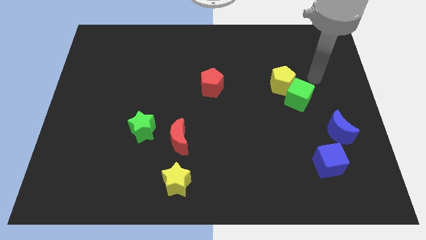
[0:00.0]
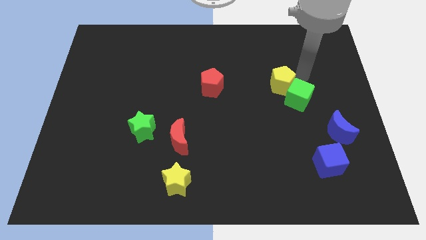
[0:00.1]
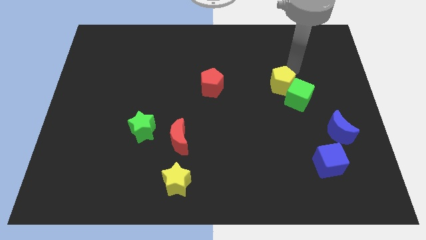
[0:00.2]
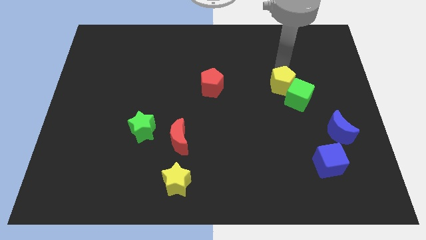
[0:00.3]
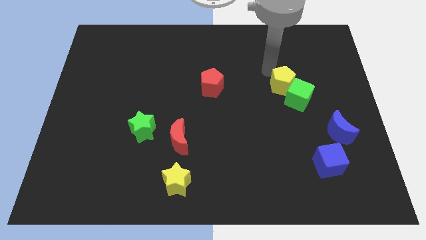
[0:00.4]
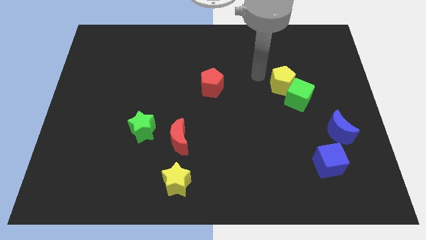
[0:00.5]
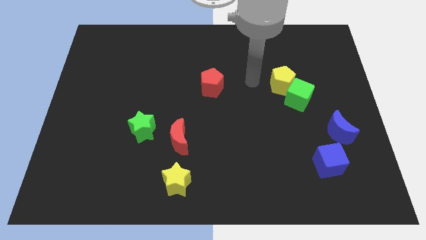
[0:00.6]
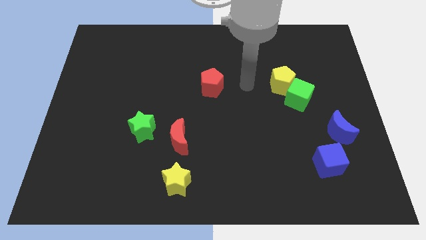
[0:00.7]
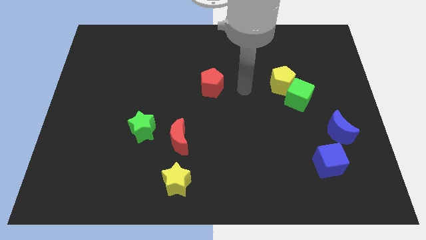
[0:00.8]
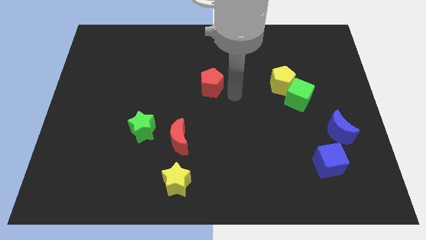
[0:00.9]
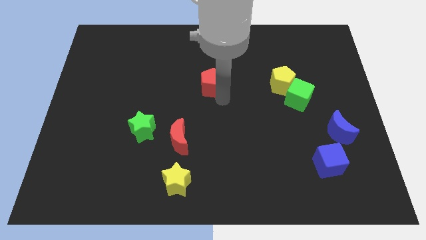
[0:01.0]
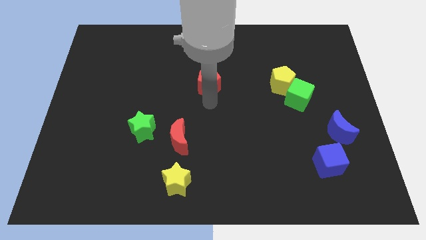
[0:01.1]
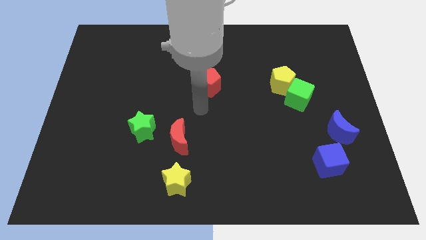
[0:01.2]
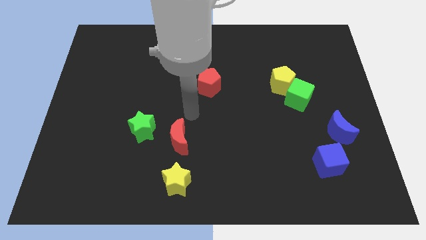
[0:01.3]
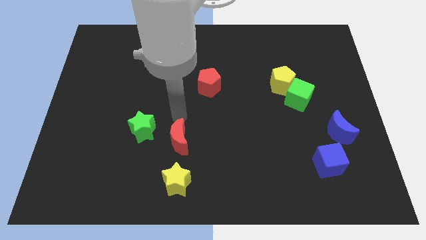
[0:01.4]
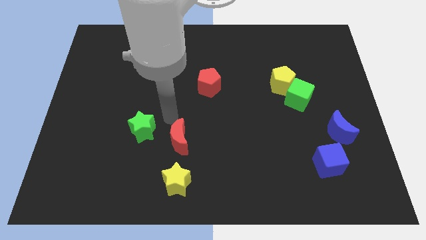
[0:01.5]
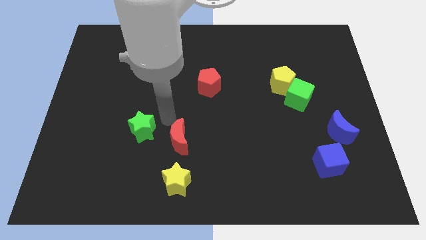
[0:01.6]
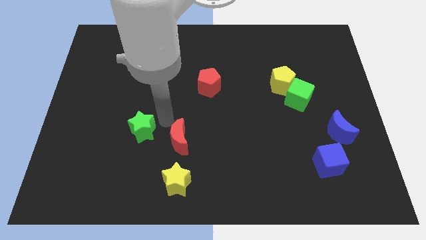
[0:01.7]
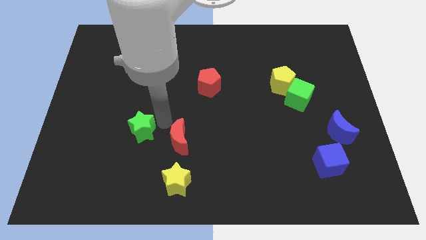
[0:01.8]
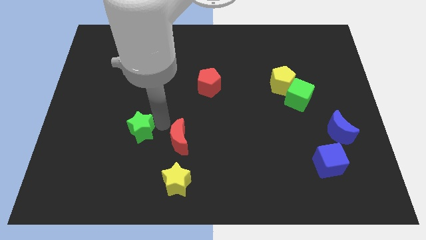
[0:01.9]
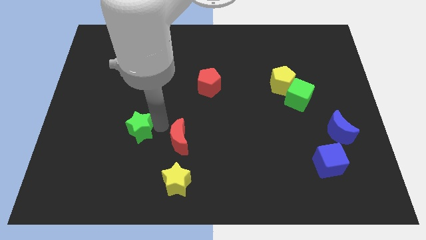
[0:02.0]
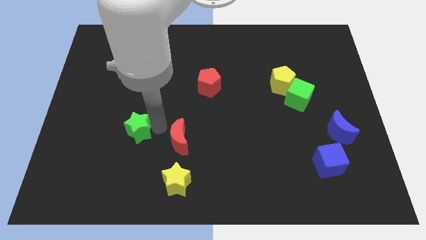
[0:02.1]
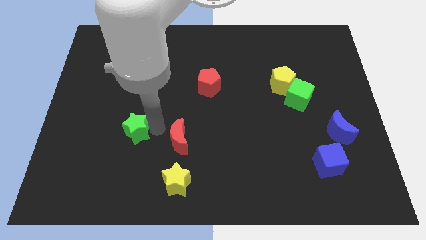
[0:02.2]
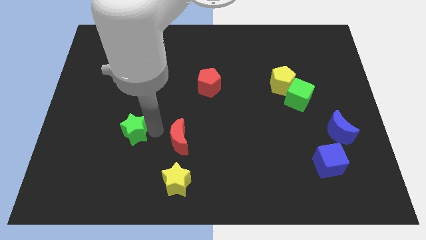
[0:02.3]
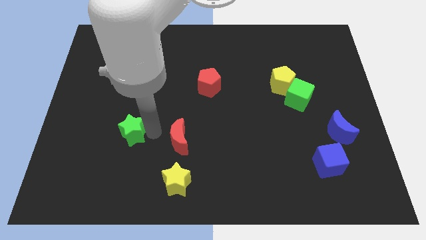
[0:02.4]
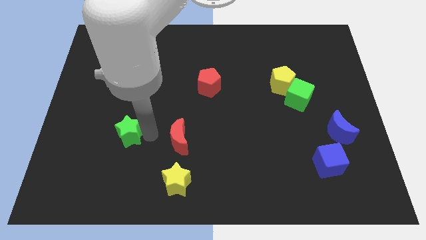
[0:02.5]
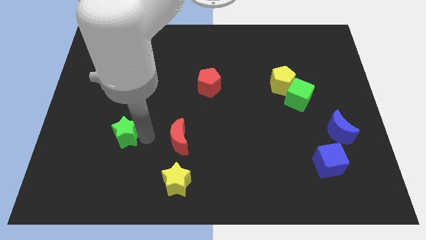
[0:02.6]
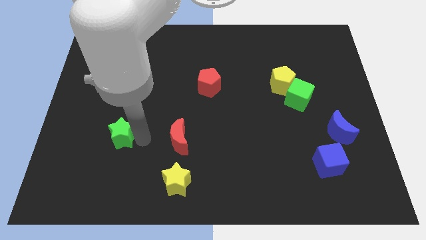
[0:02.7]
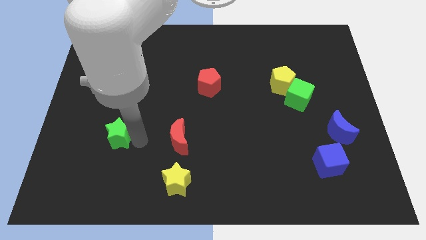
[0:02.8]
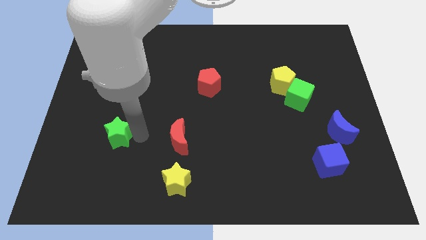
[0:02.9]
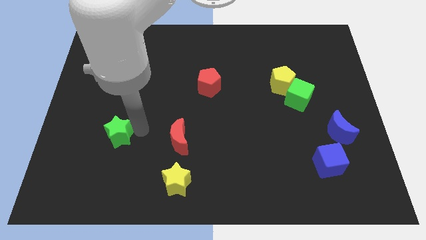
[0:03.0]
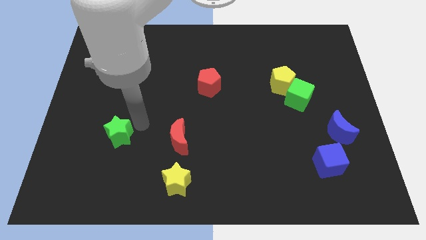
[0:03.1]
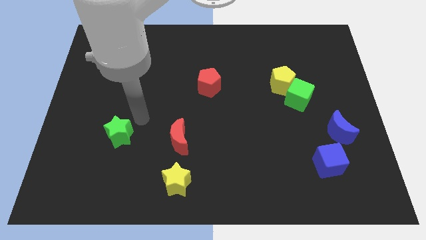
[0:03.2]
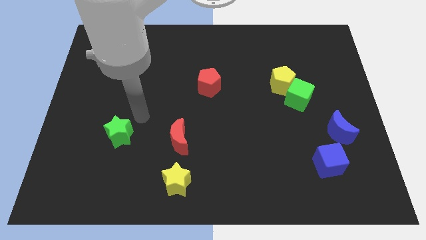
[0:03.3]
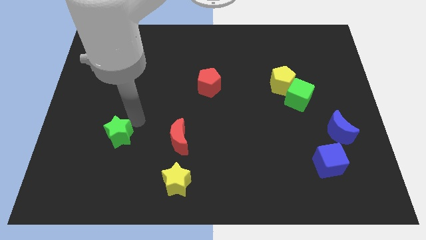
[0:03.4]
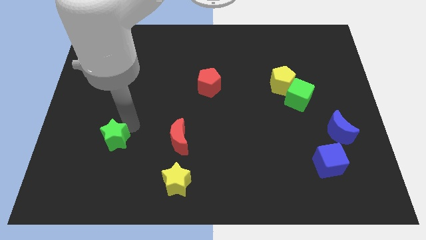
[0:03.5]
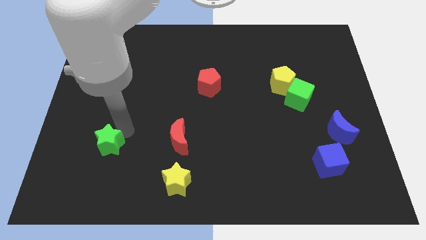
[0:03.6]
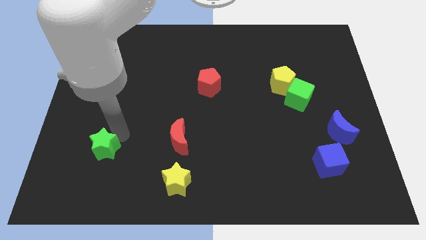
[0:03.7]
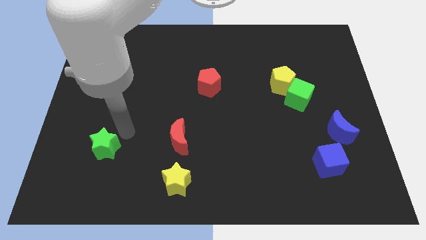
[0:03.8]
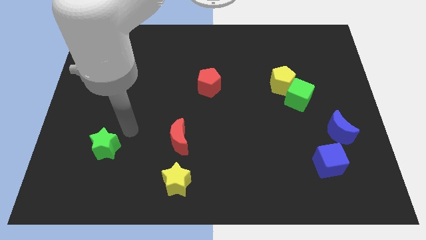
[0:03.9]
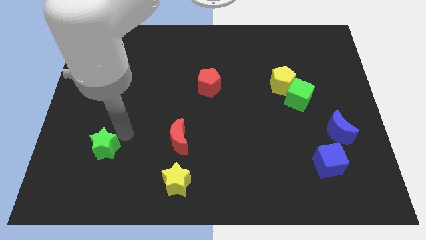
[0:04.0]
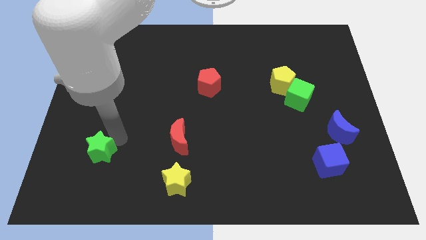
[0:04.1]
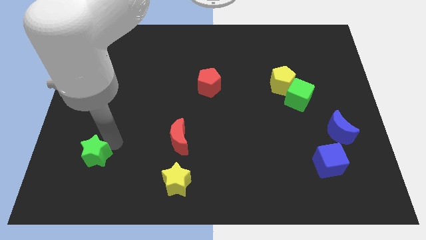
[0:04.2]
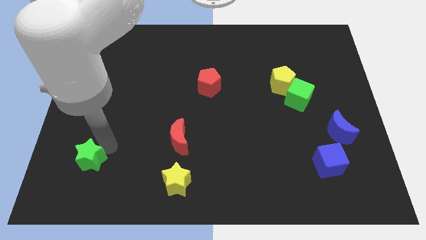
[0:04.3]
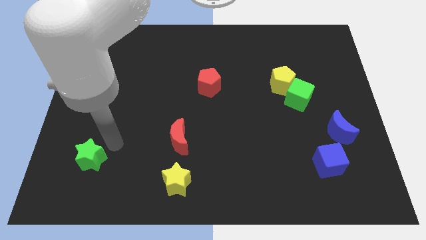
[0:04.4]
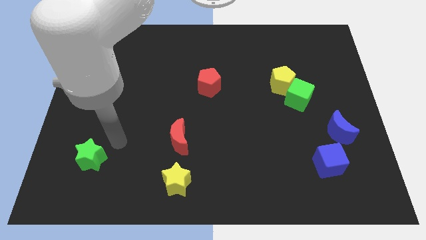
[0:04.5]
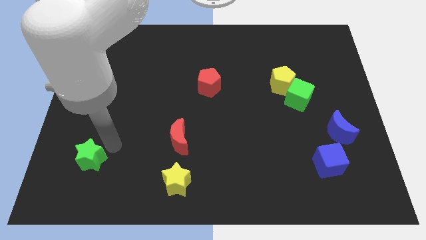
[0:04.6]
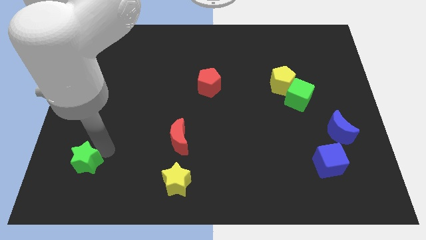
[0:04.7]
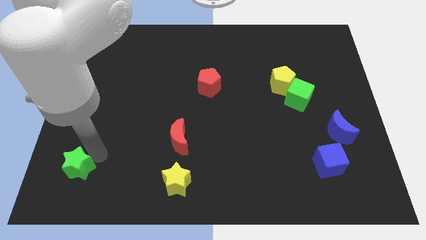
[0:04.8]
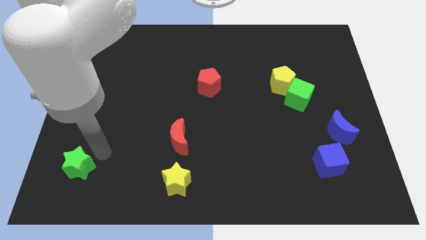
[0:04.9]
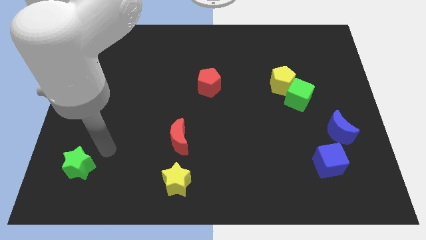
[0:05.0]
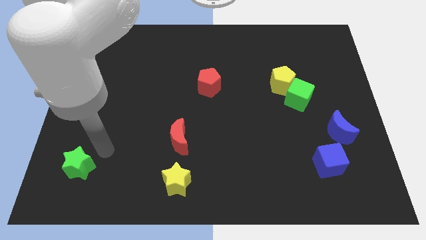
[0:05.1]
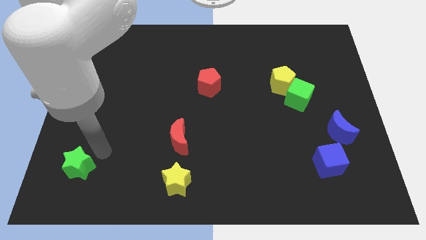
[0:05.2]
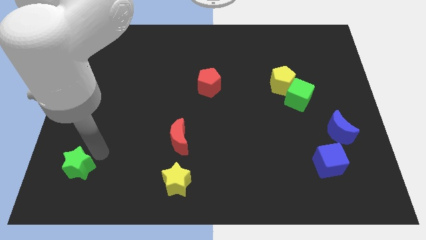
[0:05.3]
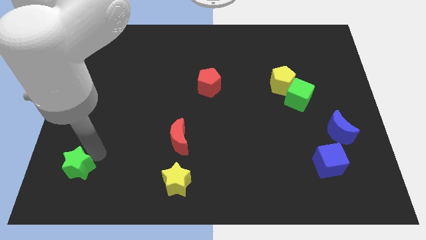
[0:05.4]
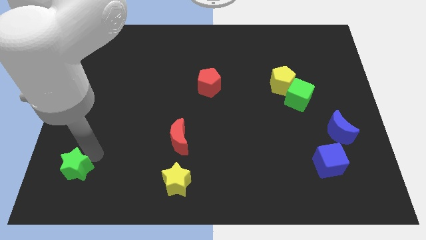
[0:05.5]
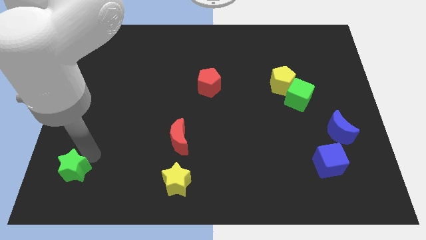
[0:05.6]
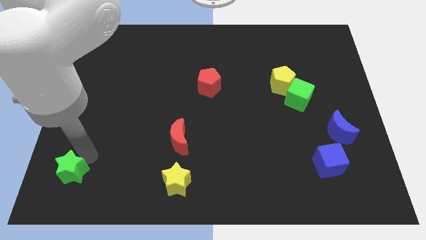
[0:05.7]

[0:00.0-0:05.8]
move the green star to the bottom left corner
